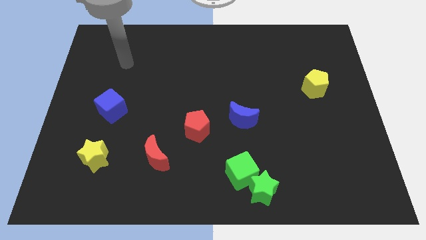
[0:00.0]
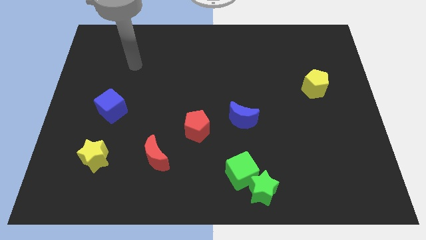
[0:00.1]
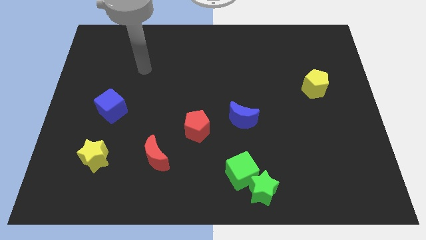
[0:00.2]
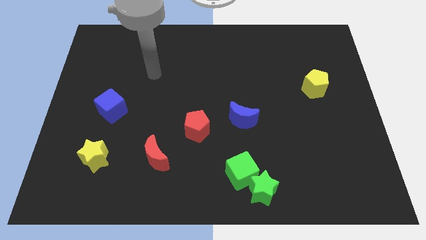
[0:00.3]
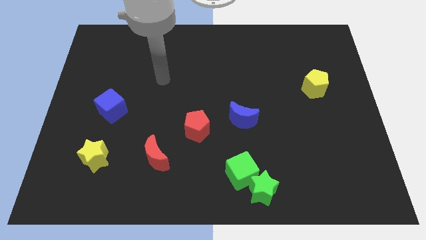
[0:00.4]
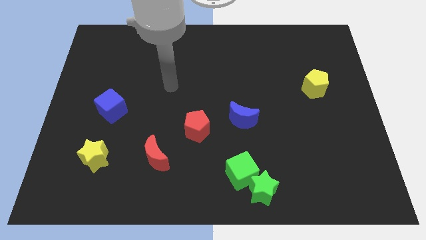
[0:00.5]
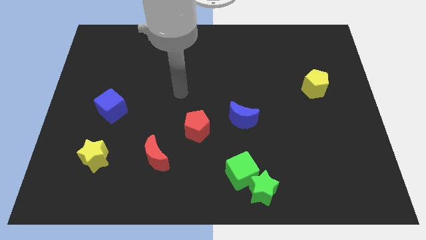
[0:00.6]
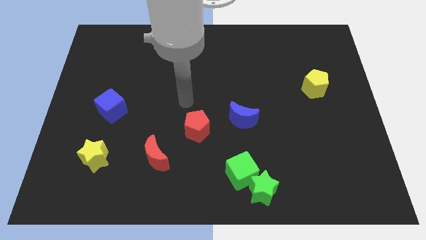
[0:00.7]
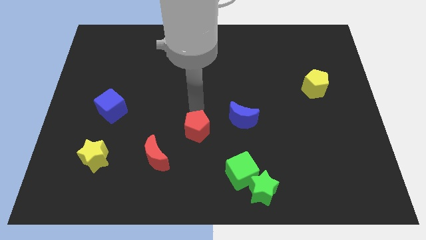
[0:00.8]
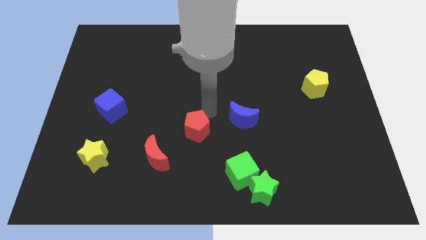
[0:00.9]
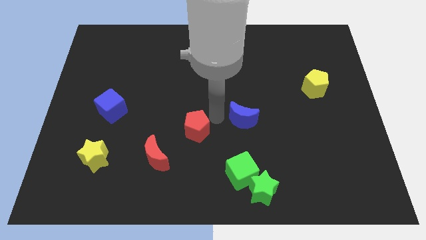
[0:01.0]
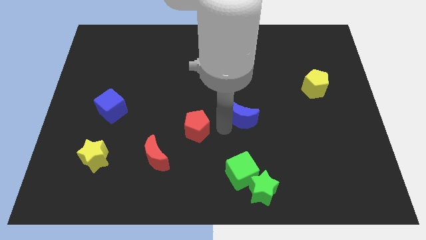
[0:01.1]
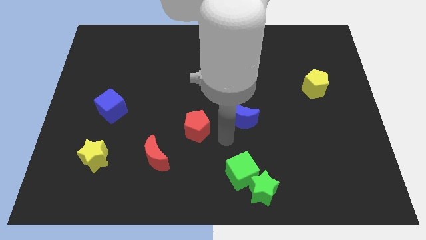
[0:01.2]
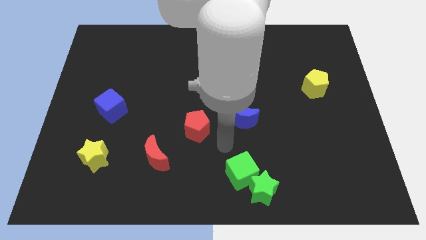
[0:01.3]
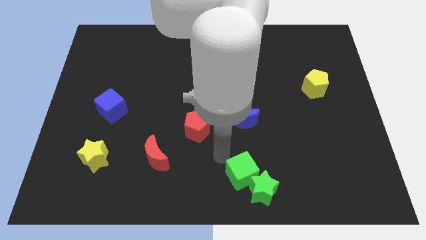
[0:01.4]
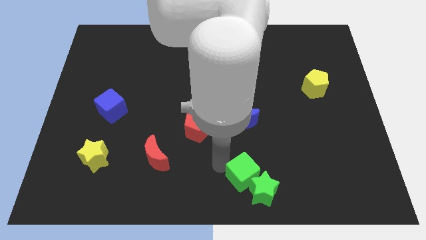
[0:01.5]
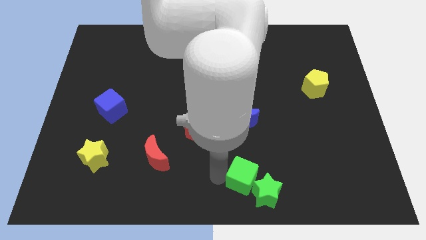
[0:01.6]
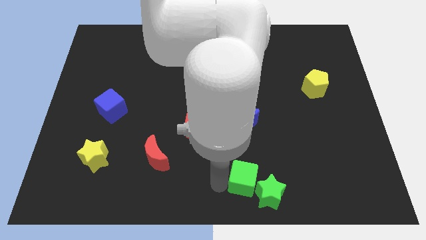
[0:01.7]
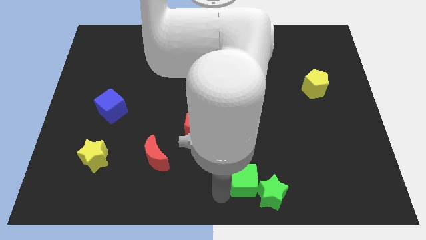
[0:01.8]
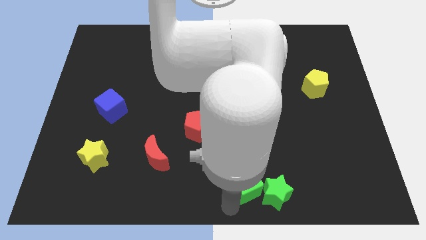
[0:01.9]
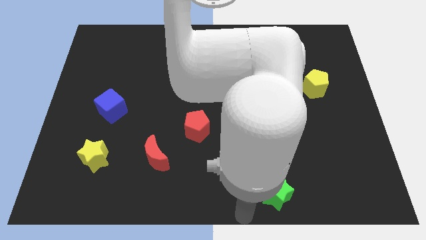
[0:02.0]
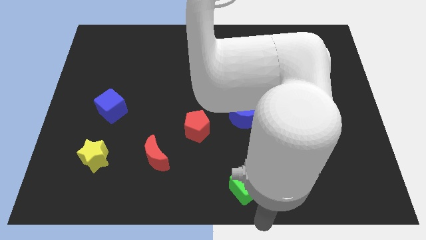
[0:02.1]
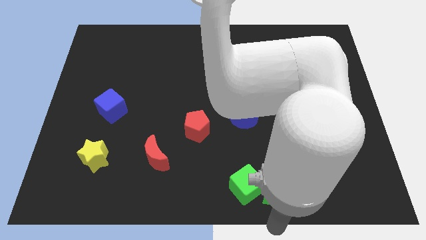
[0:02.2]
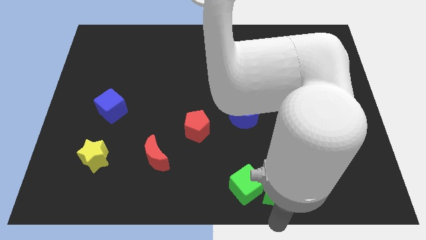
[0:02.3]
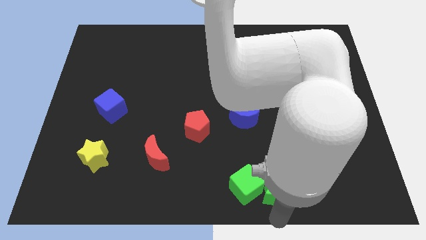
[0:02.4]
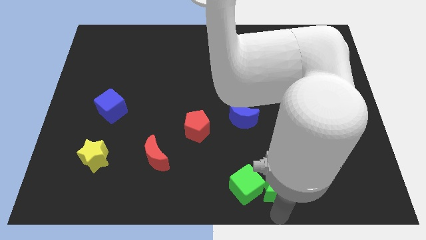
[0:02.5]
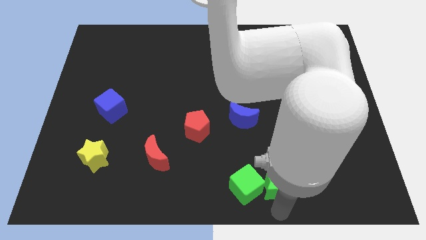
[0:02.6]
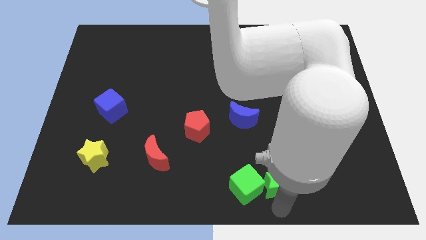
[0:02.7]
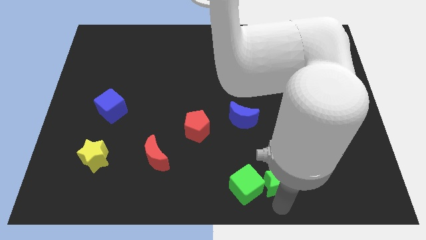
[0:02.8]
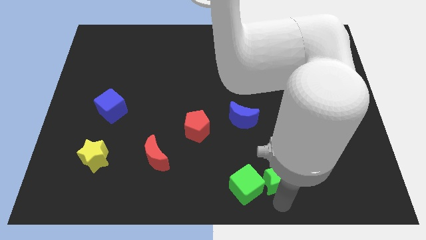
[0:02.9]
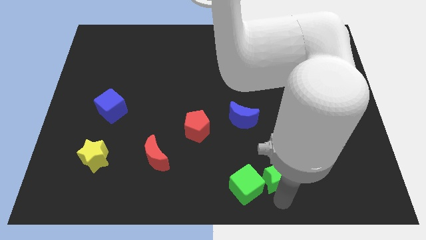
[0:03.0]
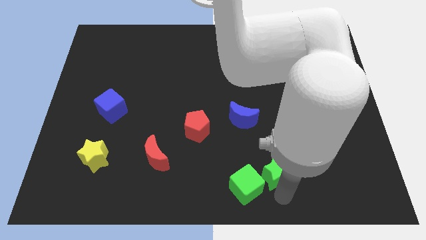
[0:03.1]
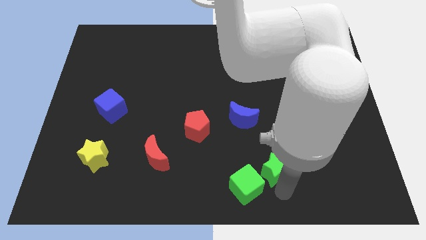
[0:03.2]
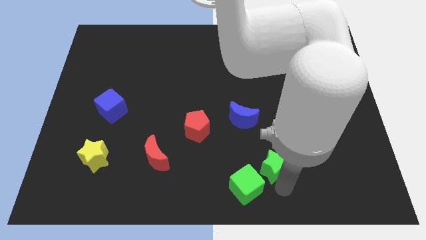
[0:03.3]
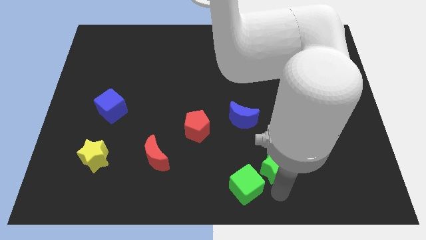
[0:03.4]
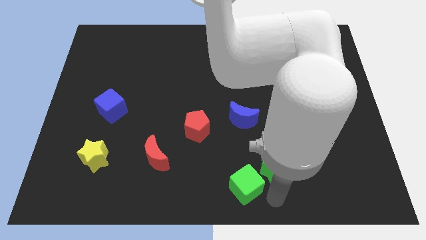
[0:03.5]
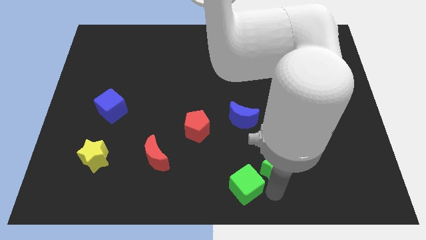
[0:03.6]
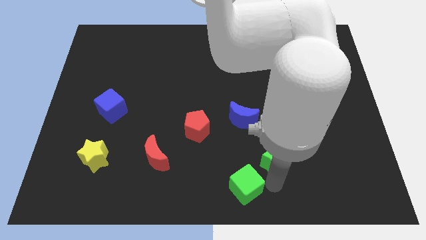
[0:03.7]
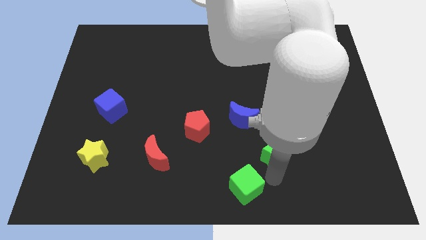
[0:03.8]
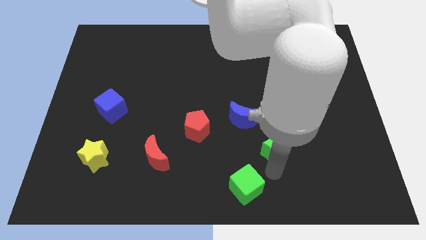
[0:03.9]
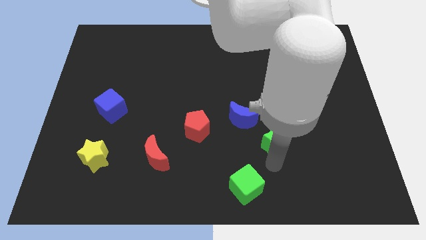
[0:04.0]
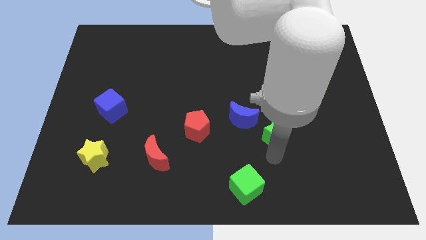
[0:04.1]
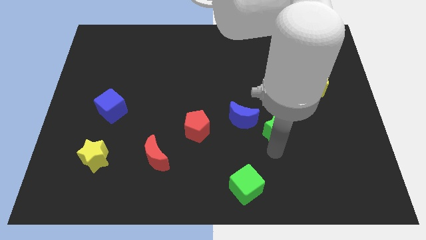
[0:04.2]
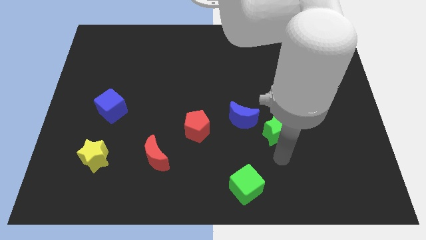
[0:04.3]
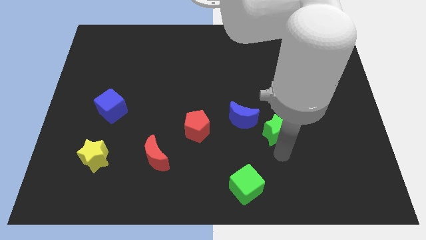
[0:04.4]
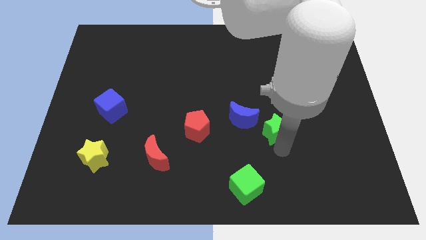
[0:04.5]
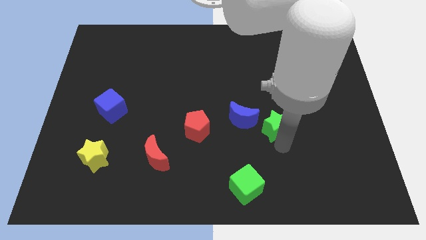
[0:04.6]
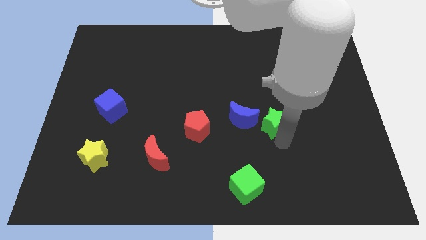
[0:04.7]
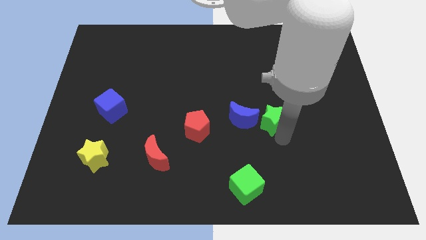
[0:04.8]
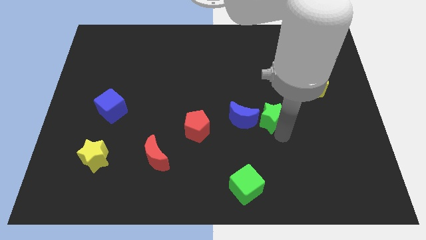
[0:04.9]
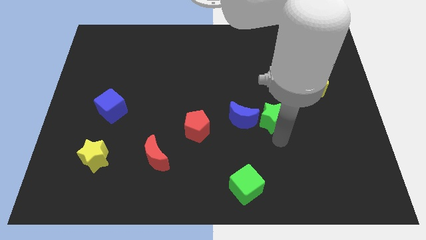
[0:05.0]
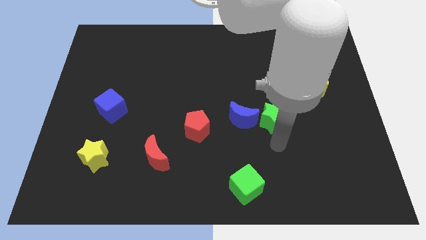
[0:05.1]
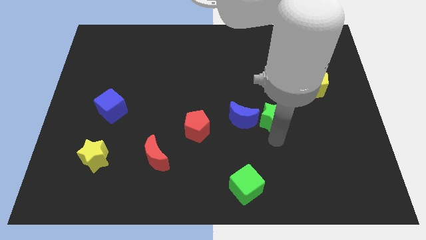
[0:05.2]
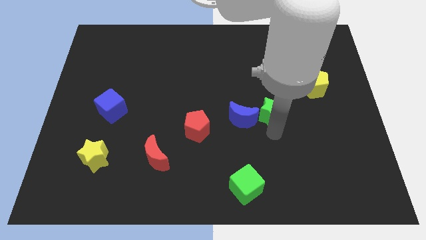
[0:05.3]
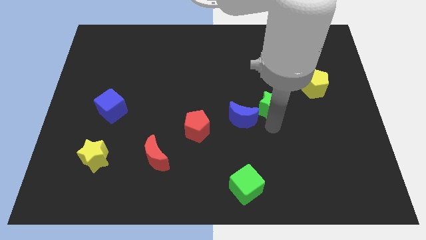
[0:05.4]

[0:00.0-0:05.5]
slide the green star up

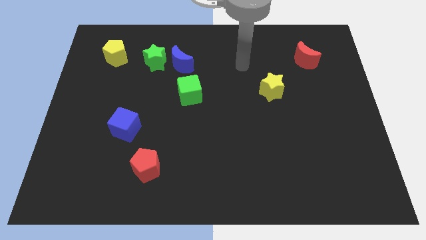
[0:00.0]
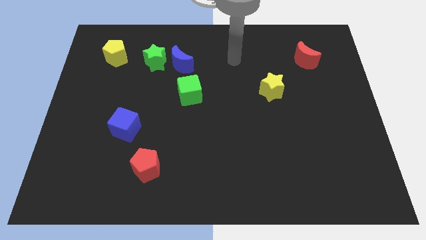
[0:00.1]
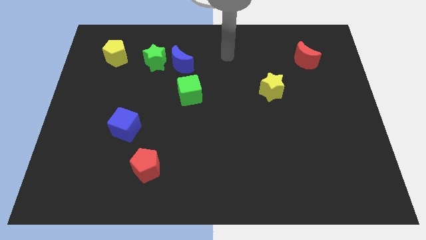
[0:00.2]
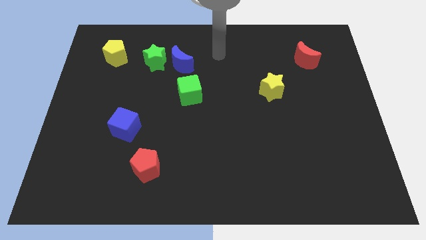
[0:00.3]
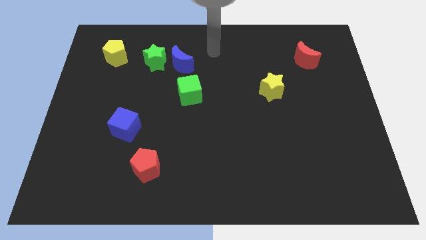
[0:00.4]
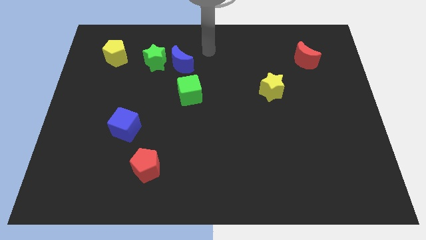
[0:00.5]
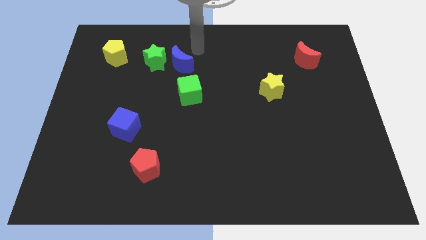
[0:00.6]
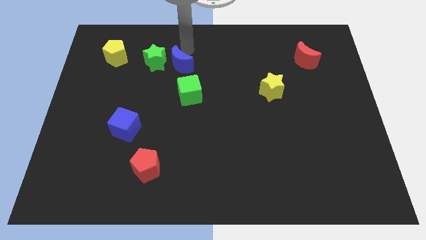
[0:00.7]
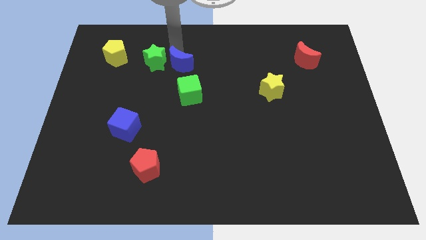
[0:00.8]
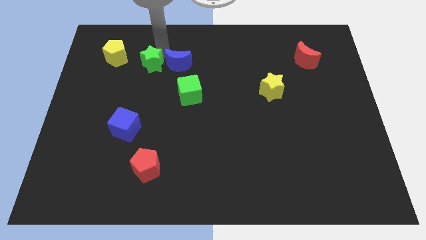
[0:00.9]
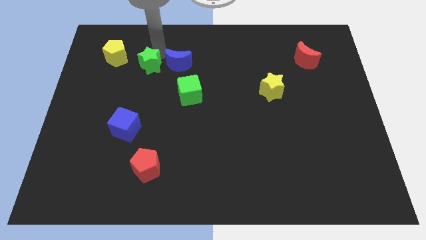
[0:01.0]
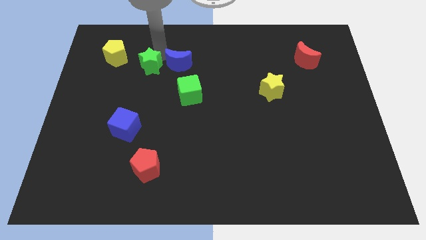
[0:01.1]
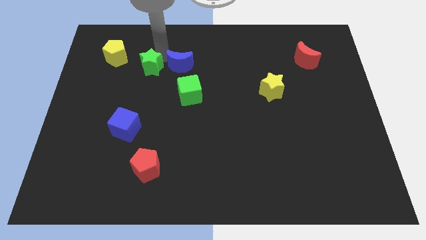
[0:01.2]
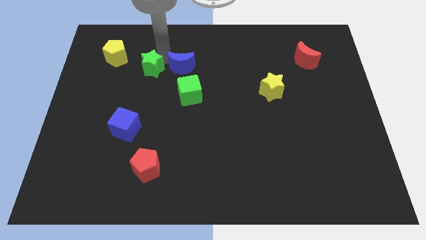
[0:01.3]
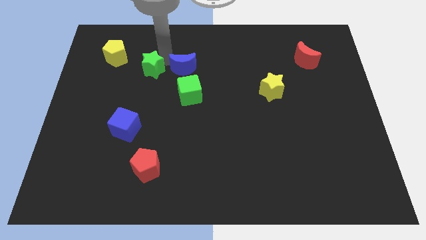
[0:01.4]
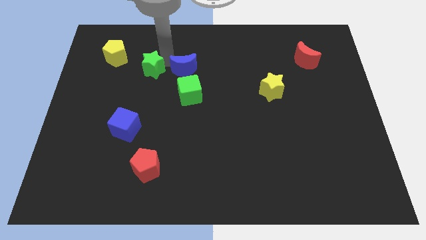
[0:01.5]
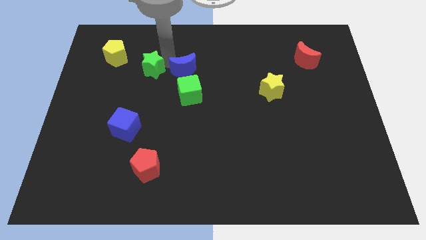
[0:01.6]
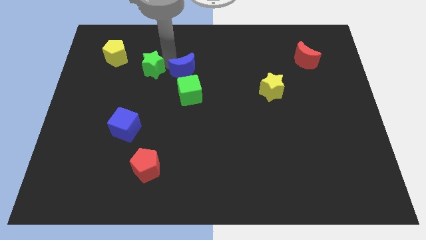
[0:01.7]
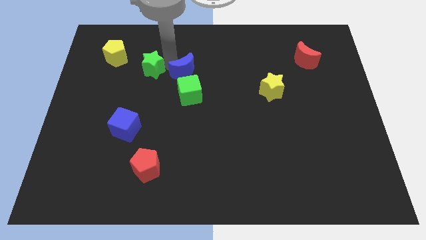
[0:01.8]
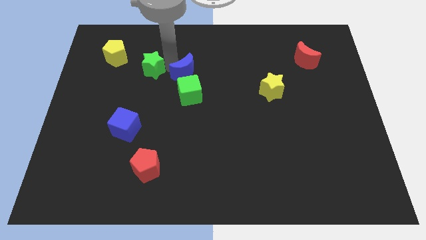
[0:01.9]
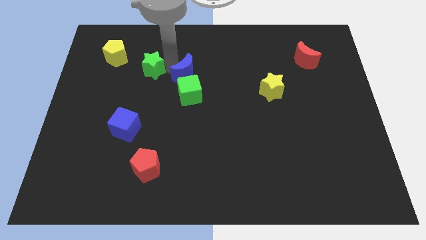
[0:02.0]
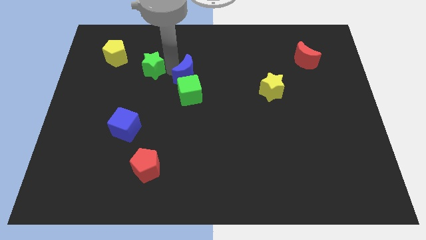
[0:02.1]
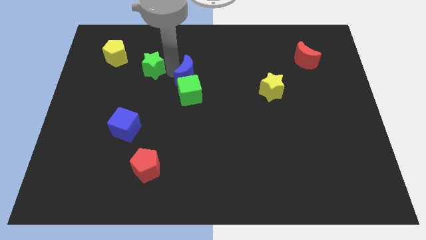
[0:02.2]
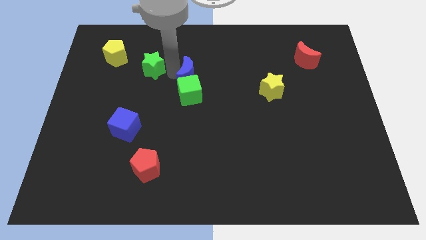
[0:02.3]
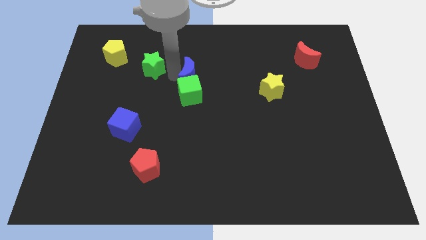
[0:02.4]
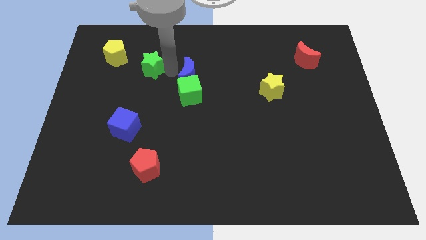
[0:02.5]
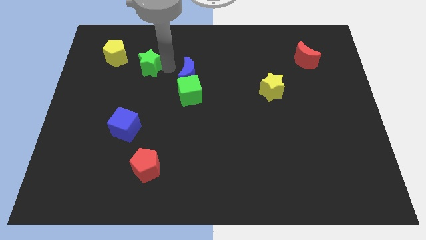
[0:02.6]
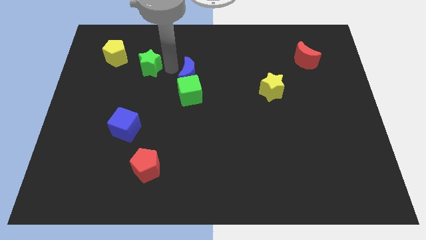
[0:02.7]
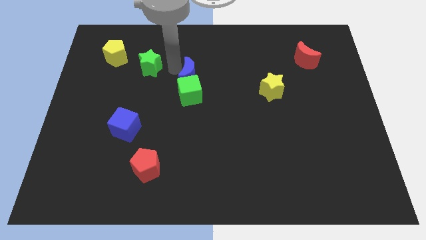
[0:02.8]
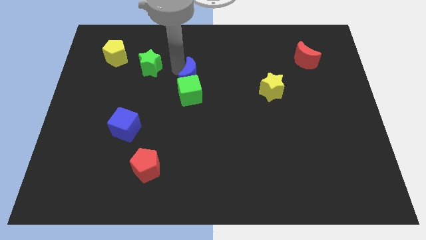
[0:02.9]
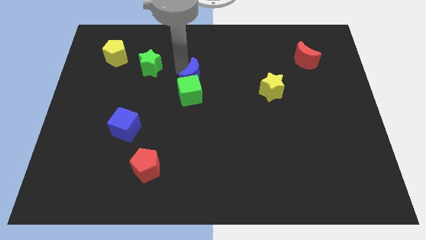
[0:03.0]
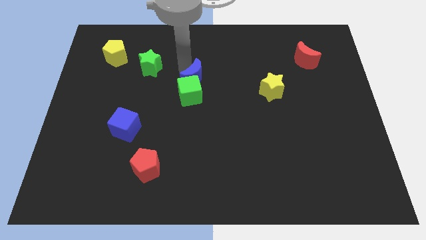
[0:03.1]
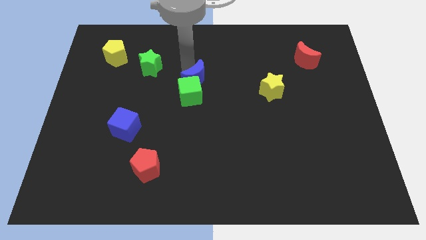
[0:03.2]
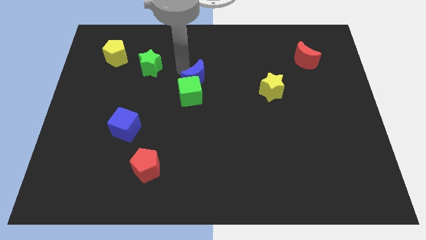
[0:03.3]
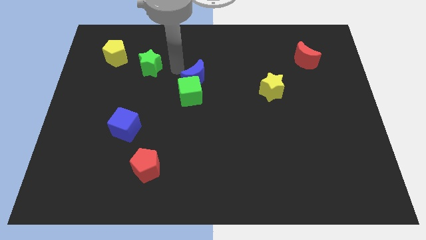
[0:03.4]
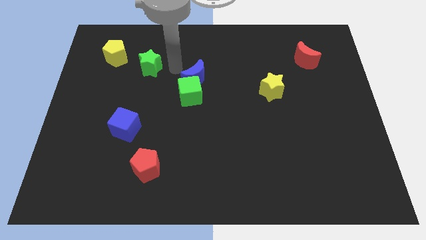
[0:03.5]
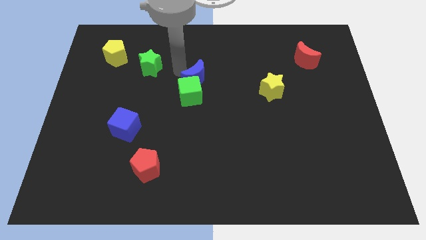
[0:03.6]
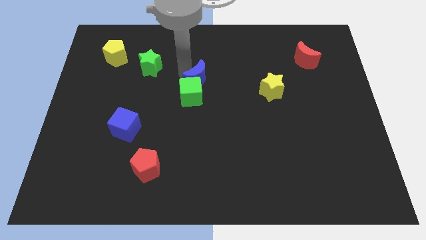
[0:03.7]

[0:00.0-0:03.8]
push the blue moon somewhat diagonally down and right
